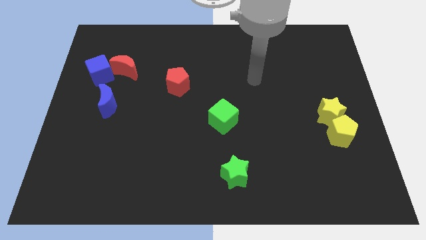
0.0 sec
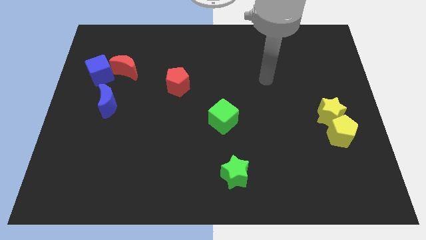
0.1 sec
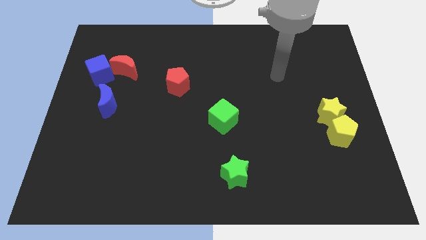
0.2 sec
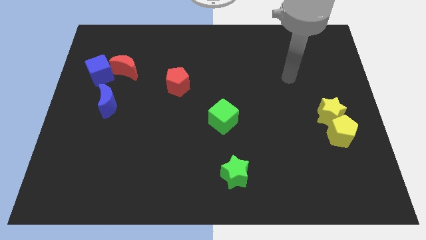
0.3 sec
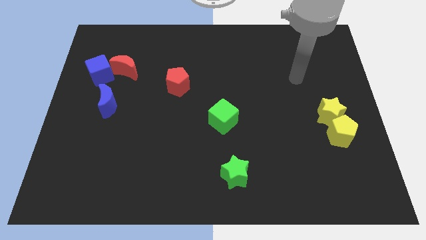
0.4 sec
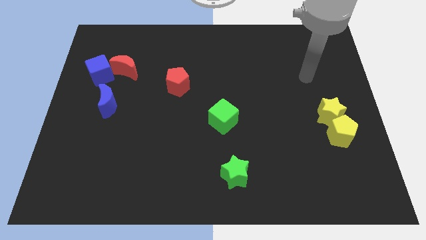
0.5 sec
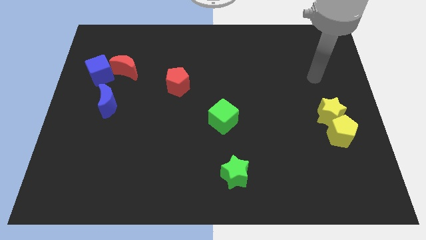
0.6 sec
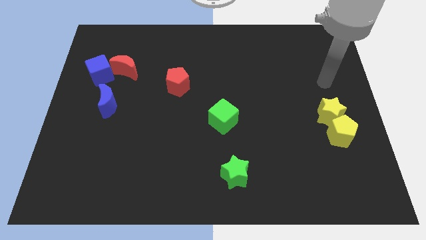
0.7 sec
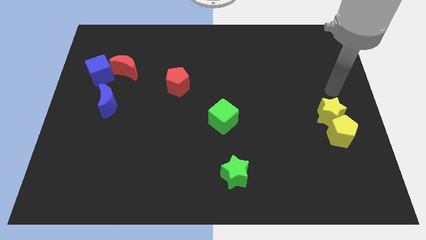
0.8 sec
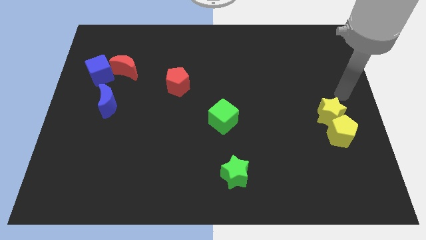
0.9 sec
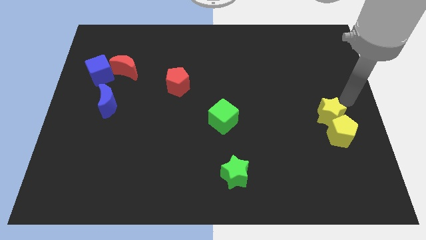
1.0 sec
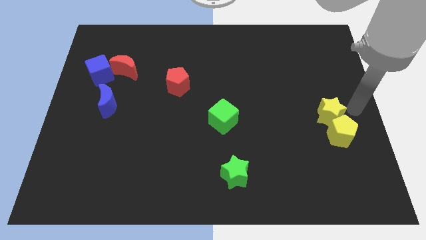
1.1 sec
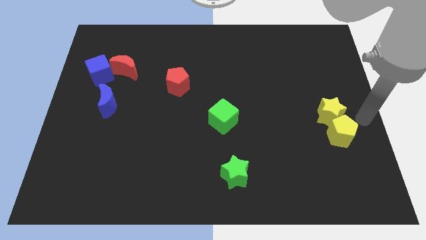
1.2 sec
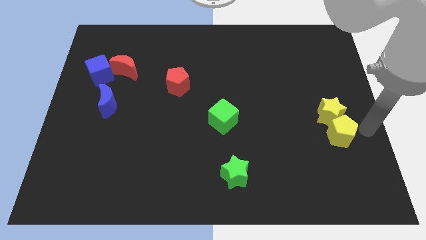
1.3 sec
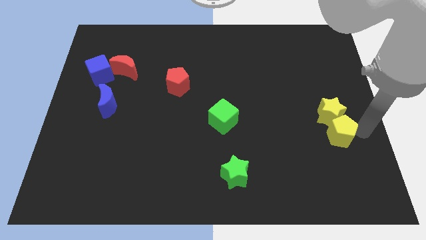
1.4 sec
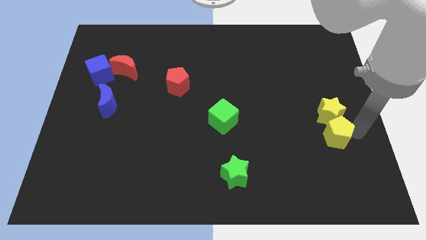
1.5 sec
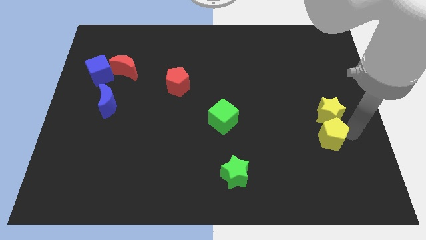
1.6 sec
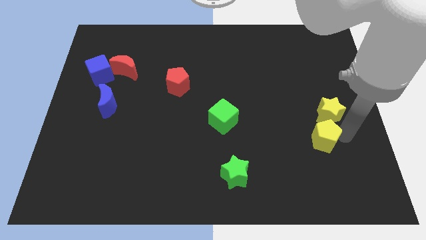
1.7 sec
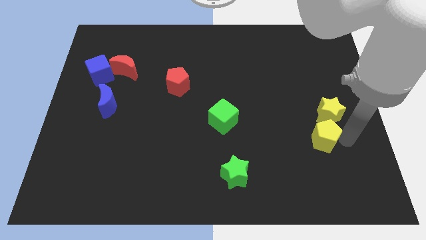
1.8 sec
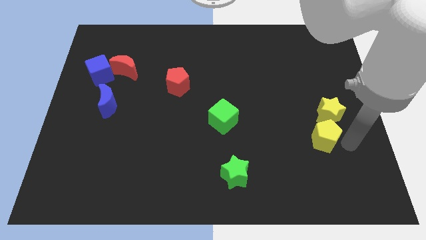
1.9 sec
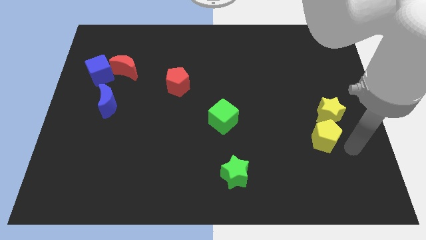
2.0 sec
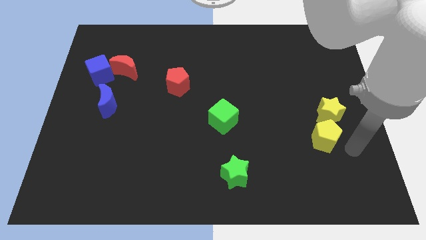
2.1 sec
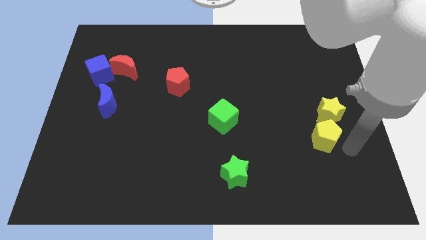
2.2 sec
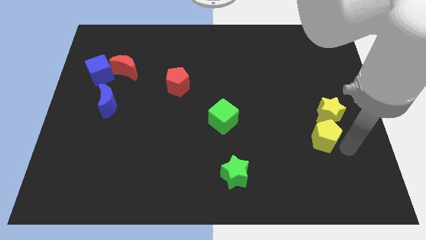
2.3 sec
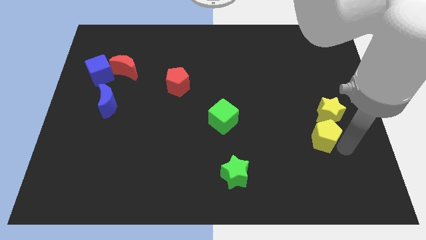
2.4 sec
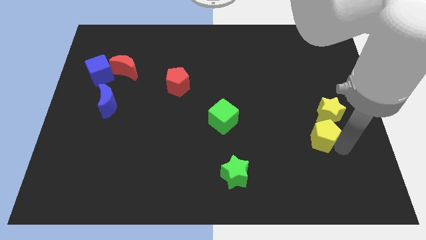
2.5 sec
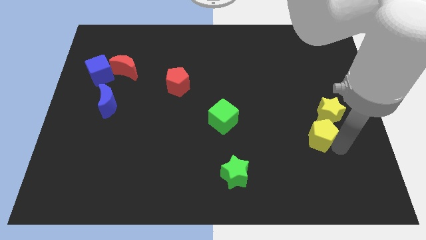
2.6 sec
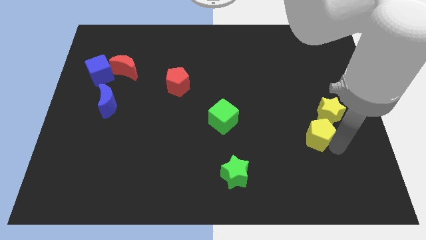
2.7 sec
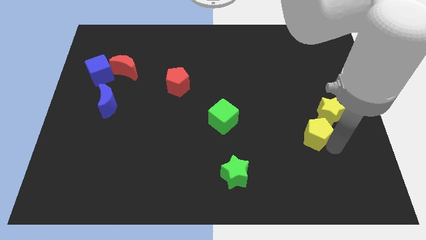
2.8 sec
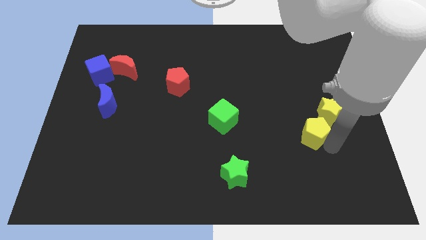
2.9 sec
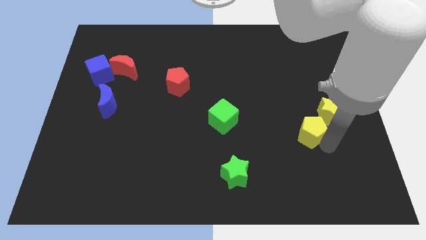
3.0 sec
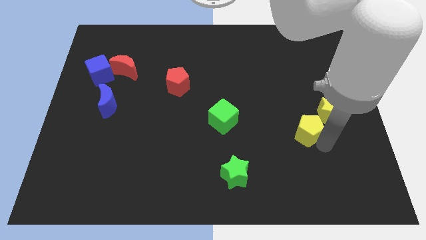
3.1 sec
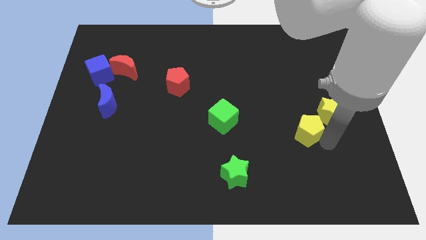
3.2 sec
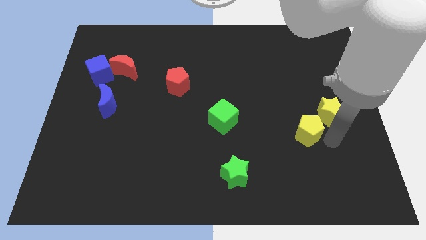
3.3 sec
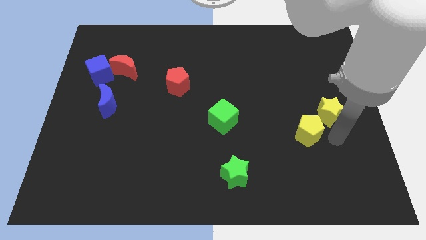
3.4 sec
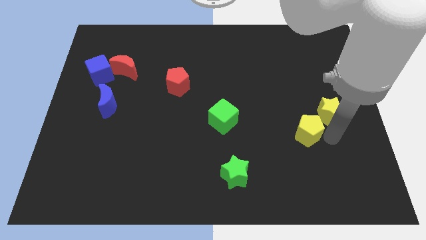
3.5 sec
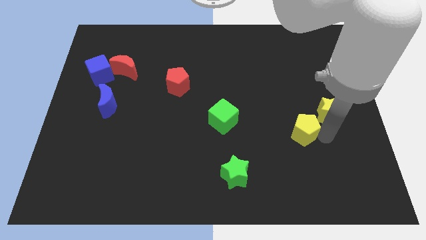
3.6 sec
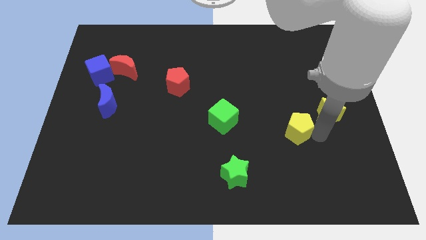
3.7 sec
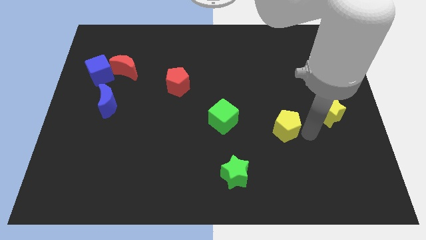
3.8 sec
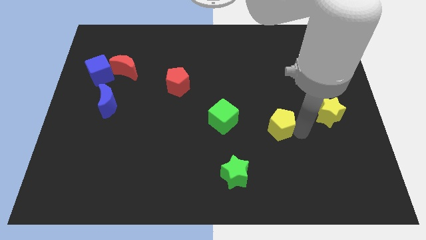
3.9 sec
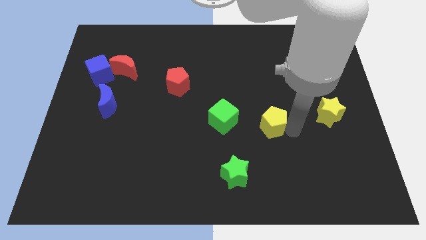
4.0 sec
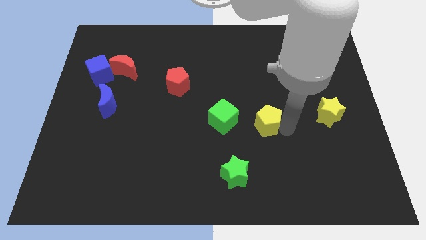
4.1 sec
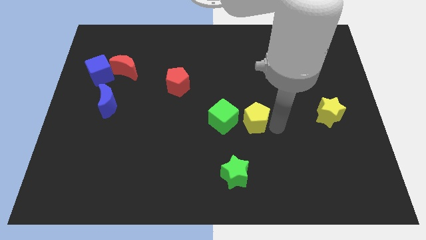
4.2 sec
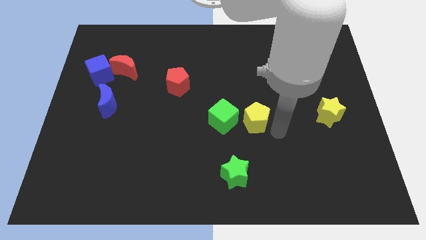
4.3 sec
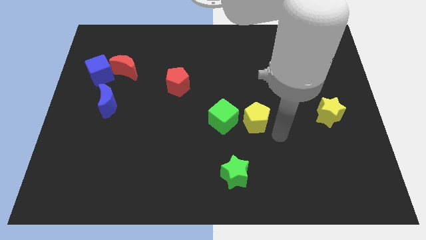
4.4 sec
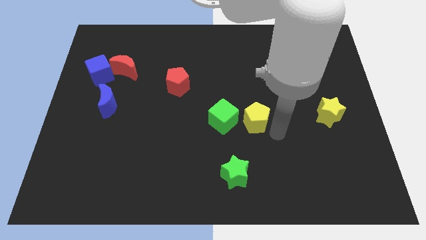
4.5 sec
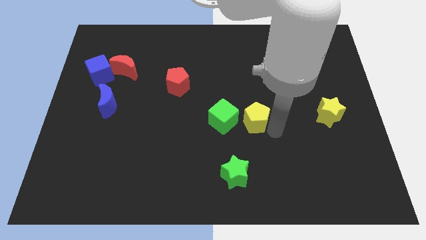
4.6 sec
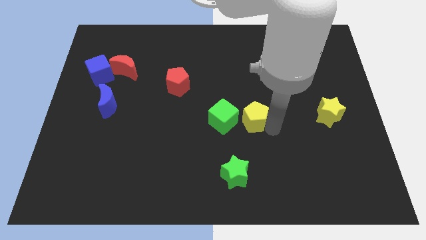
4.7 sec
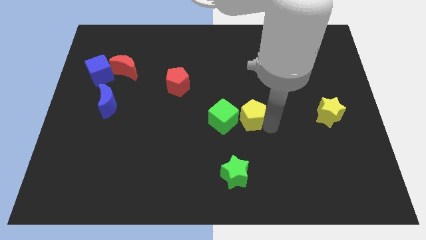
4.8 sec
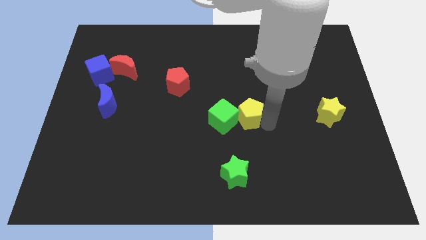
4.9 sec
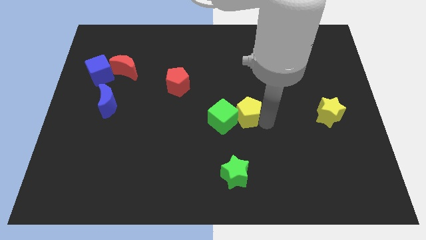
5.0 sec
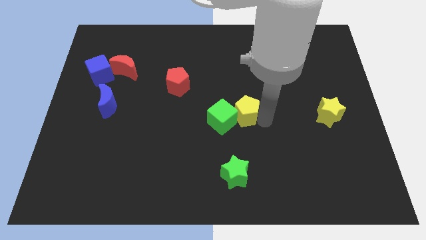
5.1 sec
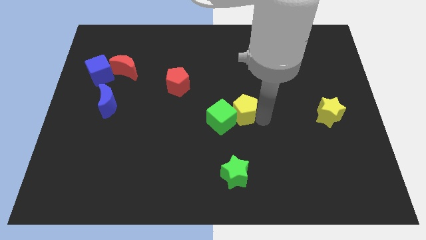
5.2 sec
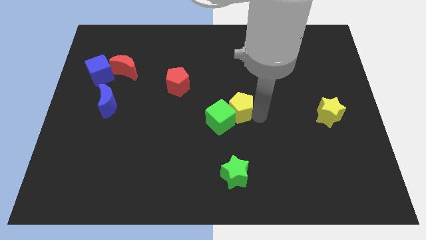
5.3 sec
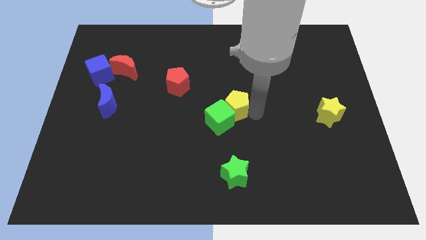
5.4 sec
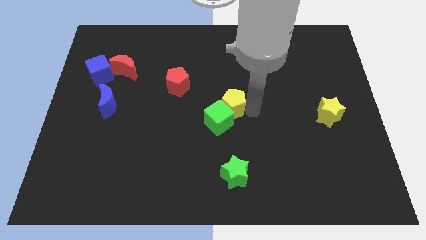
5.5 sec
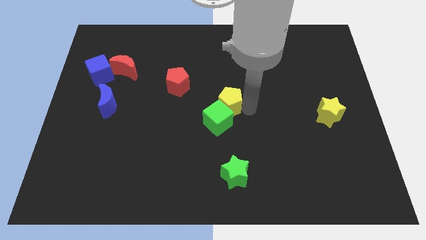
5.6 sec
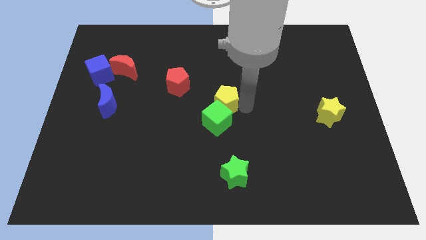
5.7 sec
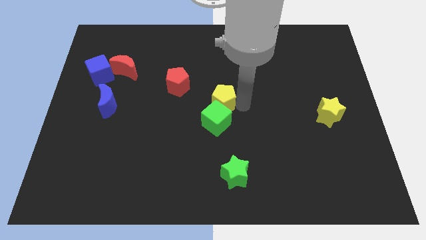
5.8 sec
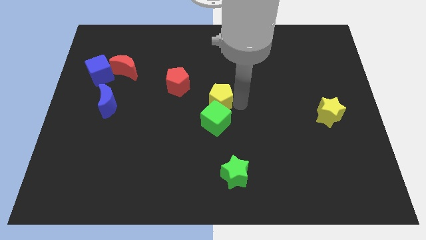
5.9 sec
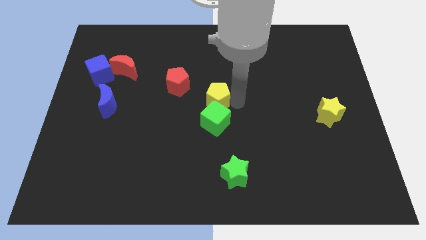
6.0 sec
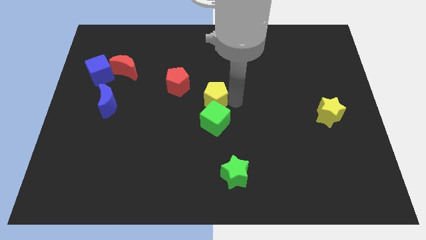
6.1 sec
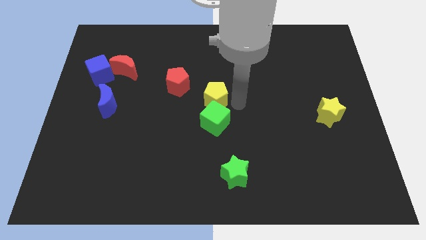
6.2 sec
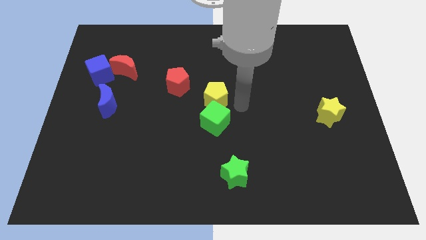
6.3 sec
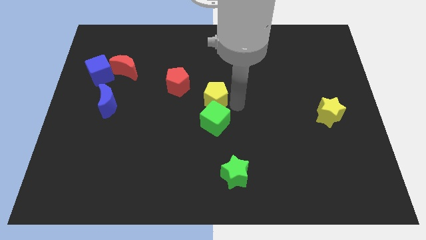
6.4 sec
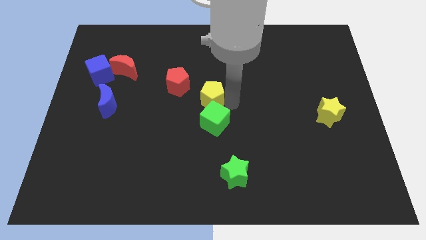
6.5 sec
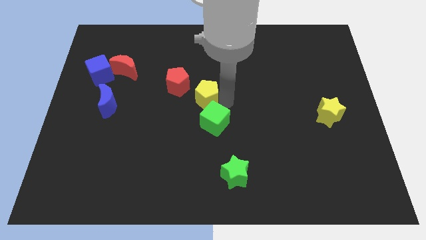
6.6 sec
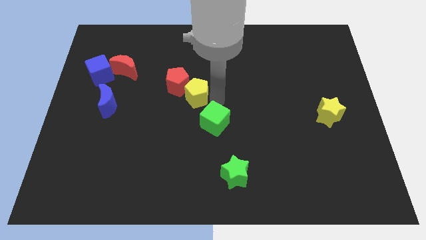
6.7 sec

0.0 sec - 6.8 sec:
move the yellow pentagon towards the red pentagon
